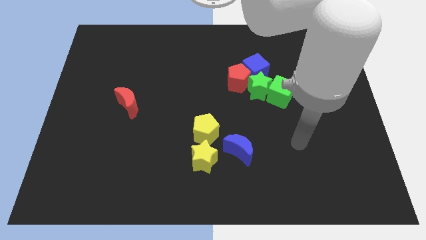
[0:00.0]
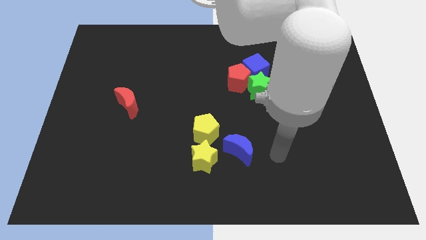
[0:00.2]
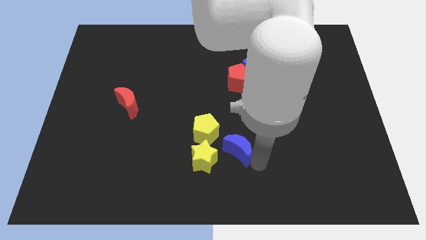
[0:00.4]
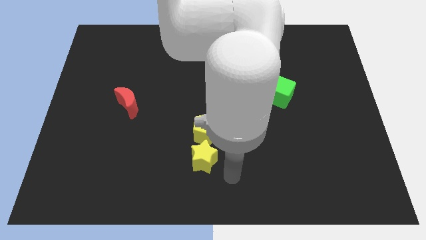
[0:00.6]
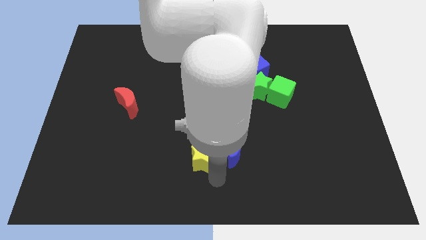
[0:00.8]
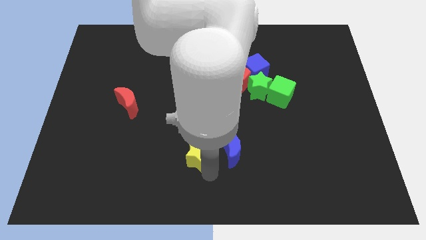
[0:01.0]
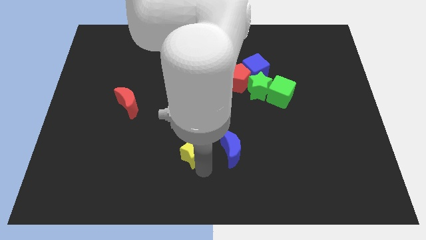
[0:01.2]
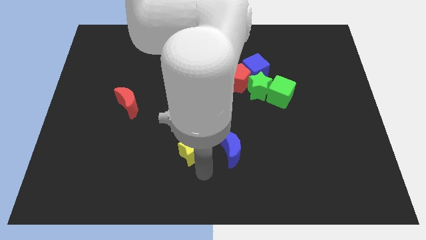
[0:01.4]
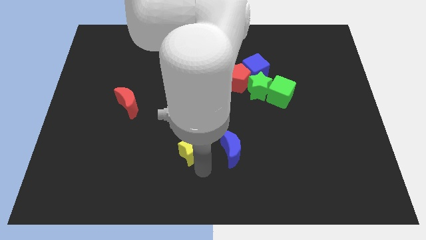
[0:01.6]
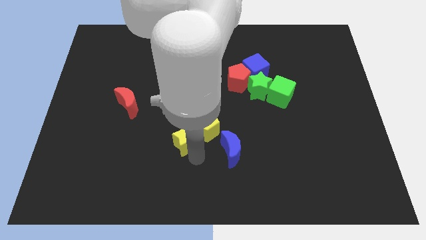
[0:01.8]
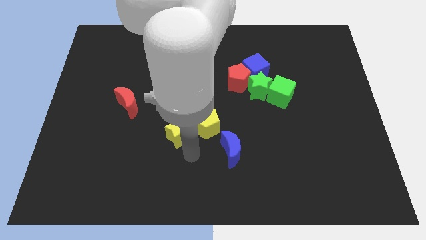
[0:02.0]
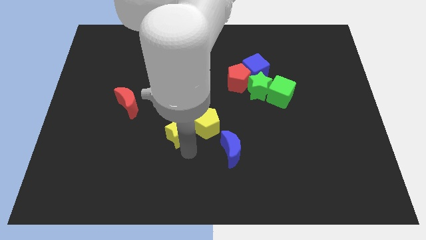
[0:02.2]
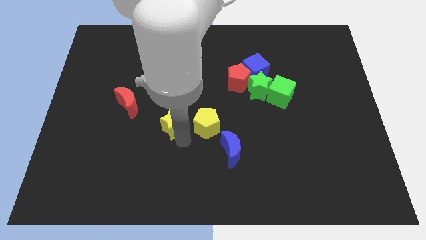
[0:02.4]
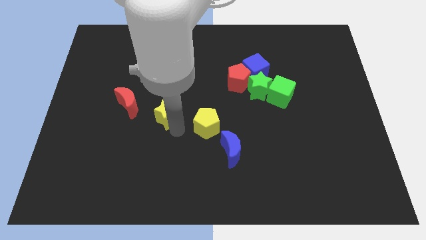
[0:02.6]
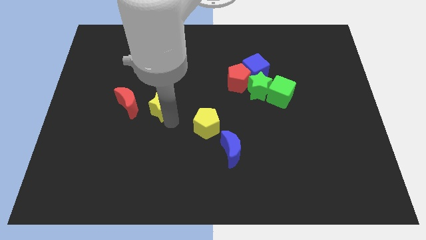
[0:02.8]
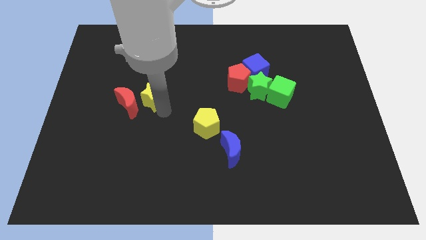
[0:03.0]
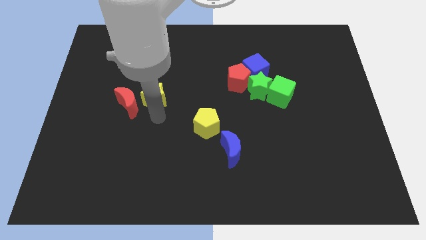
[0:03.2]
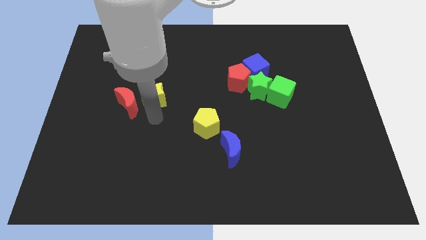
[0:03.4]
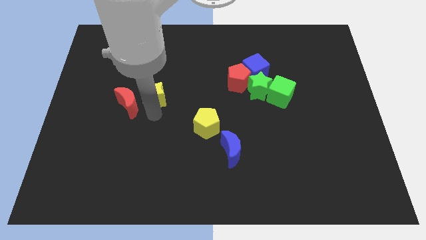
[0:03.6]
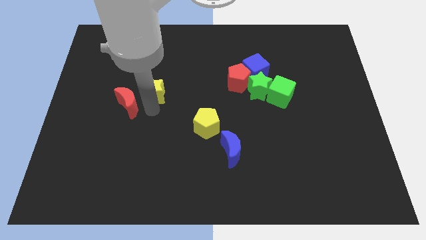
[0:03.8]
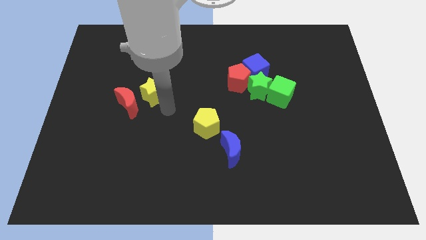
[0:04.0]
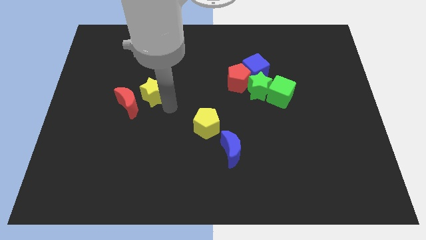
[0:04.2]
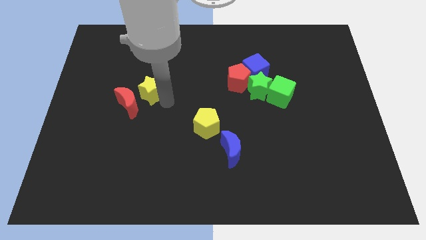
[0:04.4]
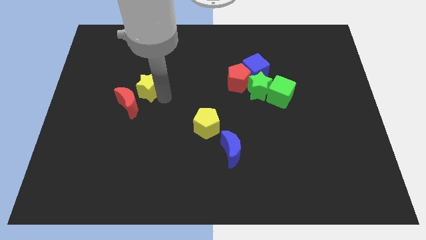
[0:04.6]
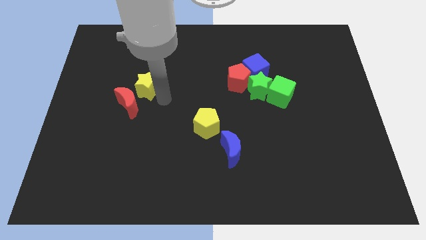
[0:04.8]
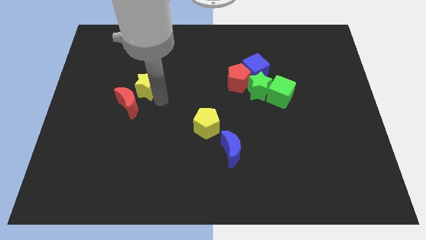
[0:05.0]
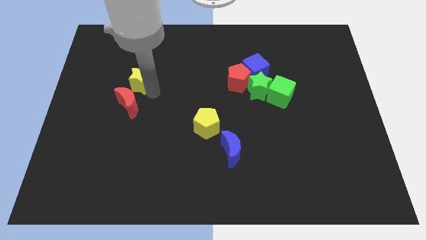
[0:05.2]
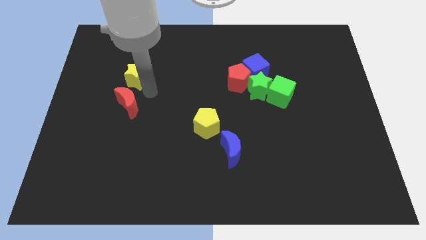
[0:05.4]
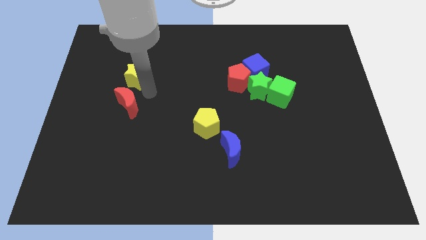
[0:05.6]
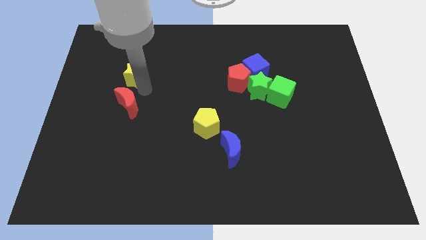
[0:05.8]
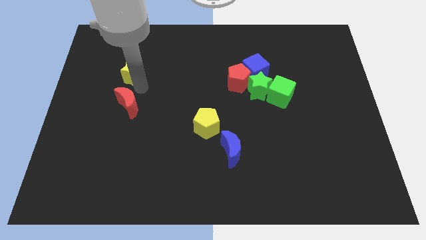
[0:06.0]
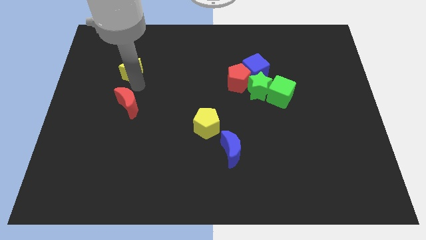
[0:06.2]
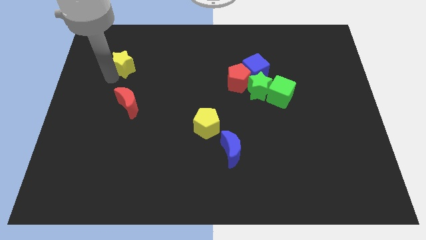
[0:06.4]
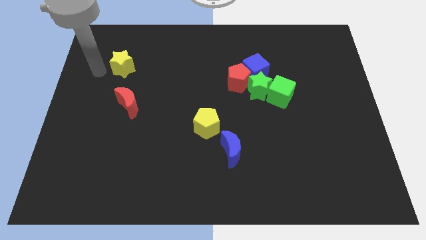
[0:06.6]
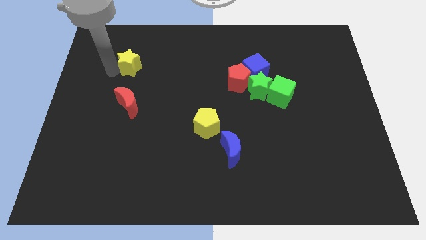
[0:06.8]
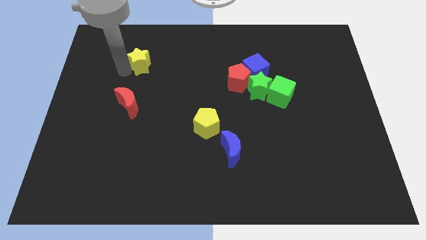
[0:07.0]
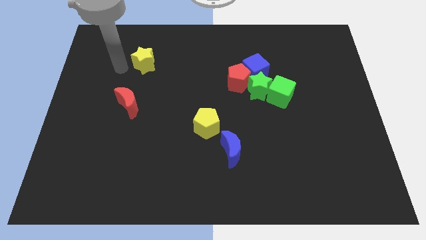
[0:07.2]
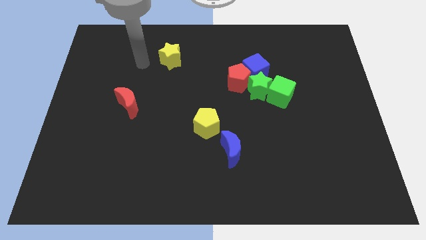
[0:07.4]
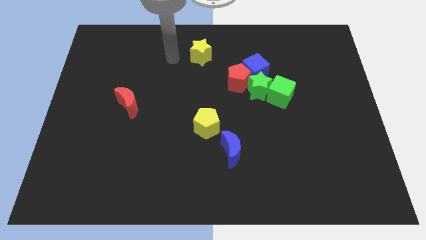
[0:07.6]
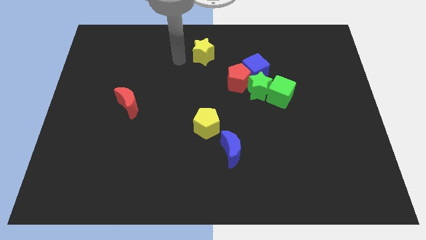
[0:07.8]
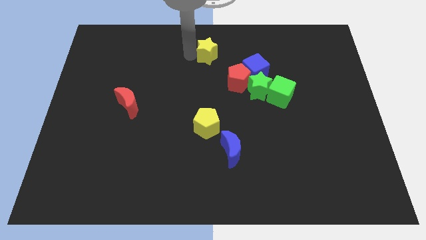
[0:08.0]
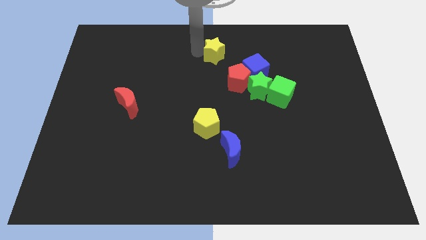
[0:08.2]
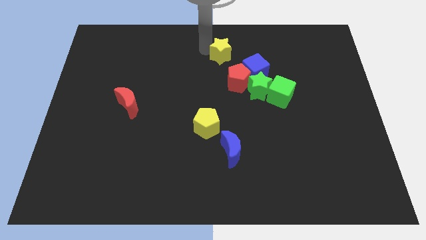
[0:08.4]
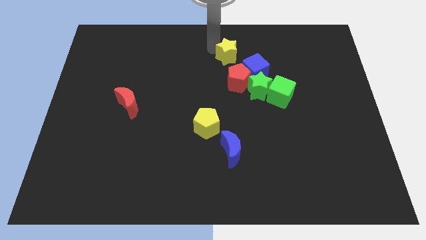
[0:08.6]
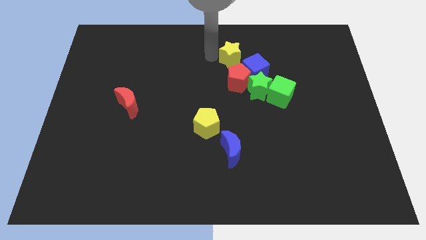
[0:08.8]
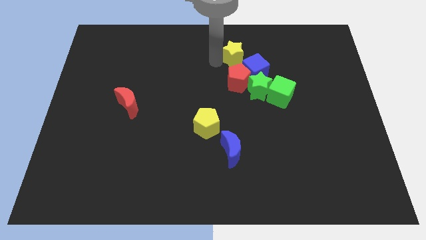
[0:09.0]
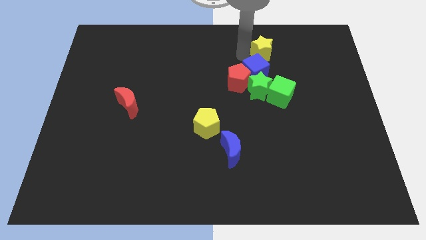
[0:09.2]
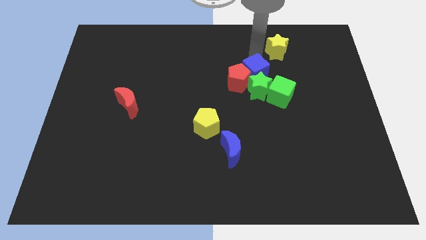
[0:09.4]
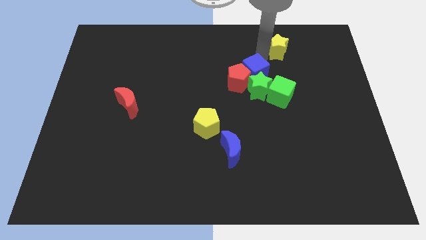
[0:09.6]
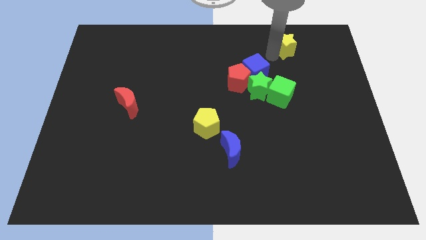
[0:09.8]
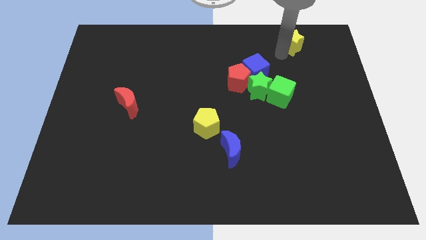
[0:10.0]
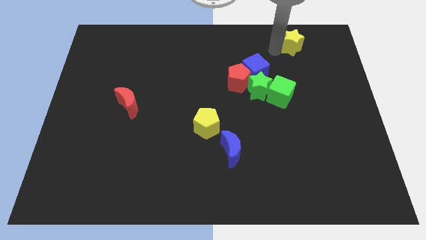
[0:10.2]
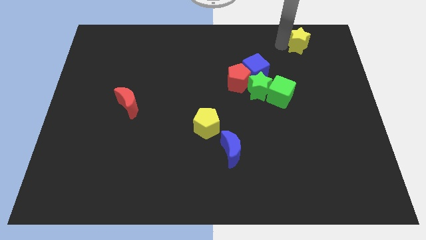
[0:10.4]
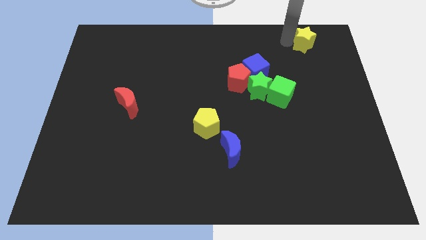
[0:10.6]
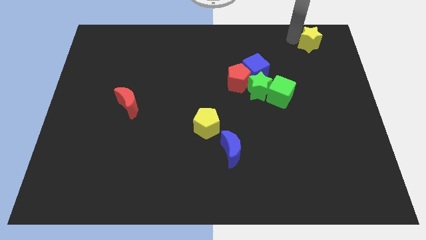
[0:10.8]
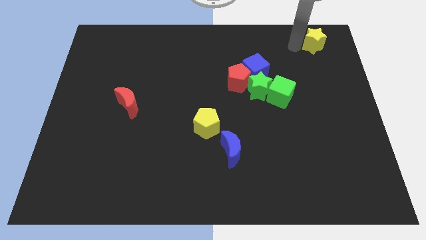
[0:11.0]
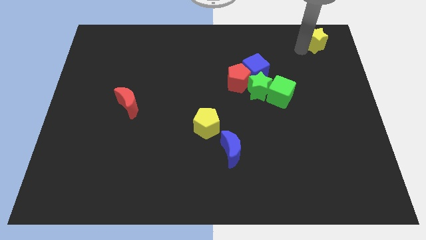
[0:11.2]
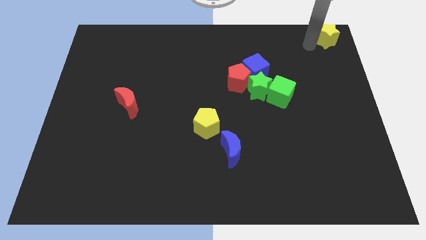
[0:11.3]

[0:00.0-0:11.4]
slide the yellow star to the top right

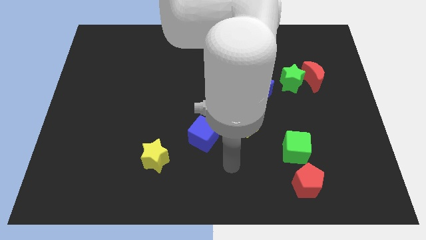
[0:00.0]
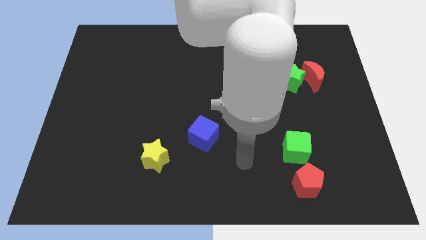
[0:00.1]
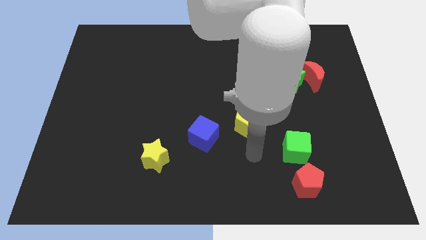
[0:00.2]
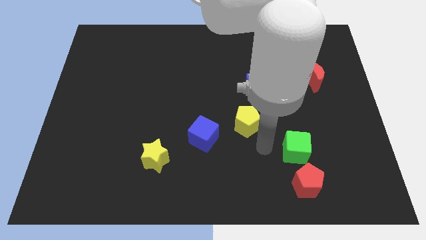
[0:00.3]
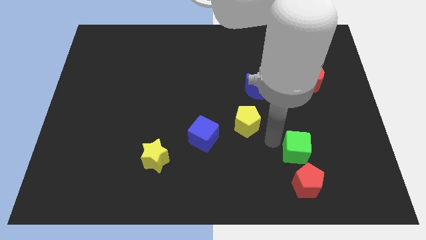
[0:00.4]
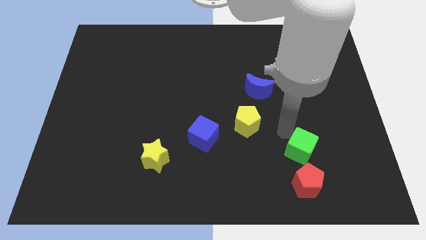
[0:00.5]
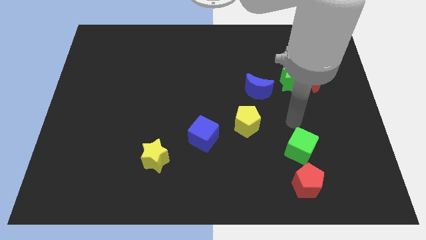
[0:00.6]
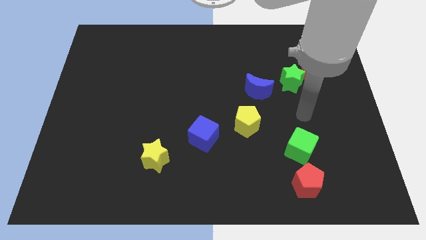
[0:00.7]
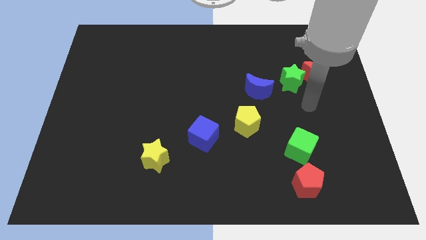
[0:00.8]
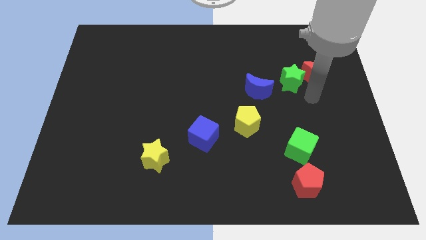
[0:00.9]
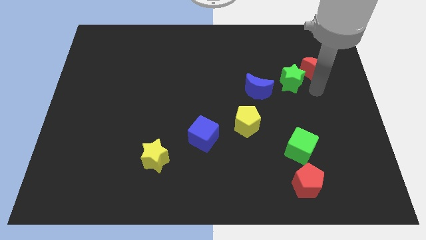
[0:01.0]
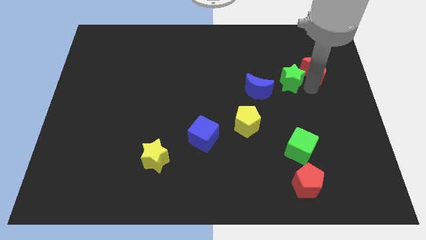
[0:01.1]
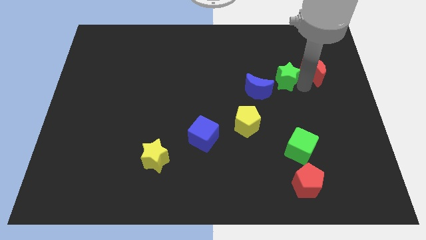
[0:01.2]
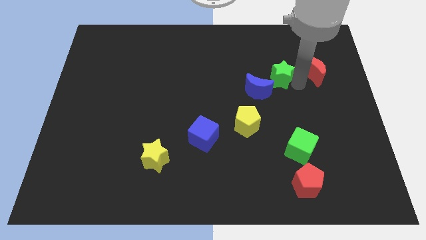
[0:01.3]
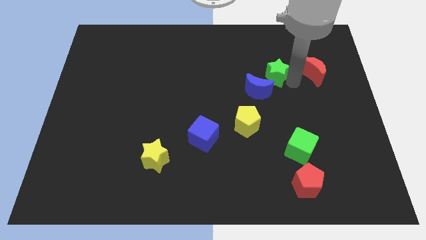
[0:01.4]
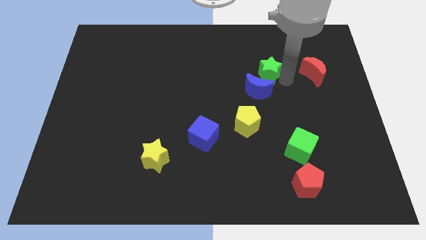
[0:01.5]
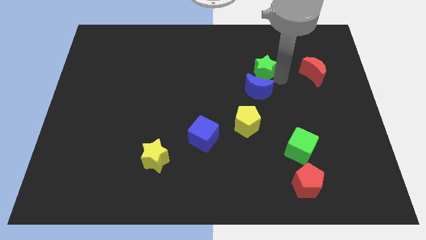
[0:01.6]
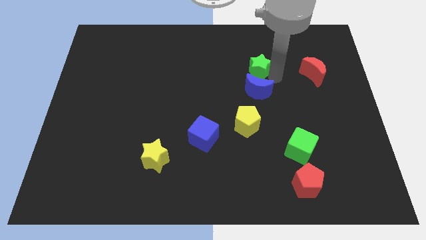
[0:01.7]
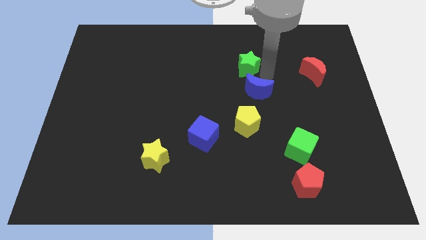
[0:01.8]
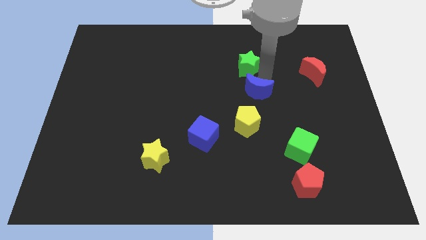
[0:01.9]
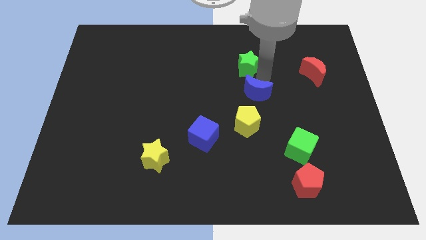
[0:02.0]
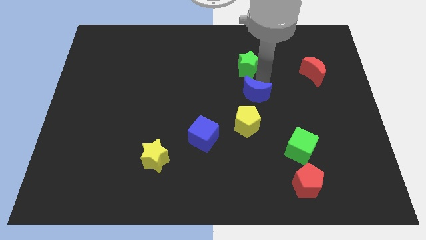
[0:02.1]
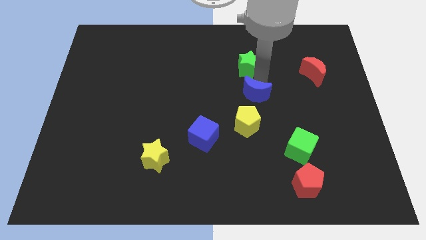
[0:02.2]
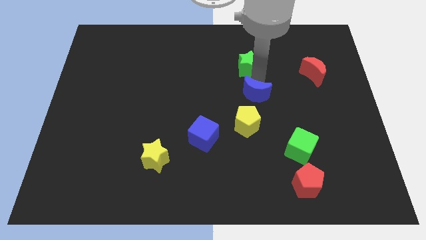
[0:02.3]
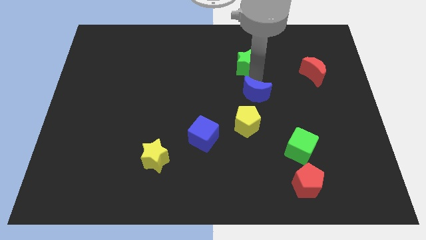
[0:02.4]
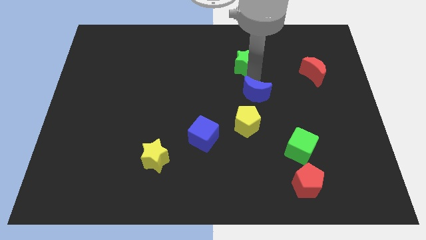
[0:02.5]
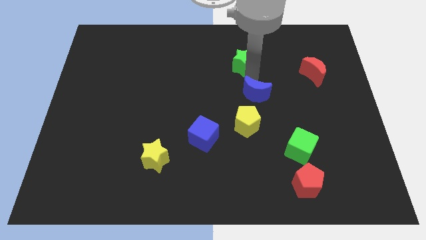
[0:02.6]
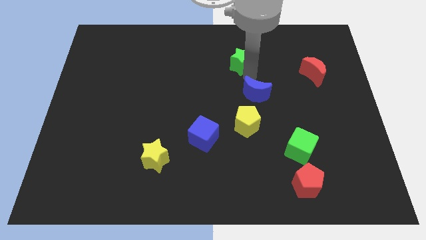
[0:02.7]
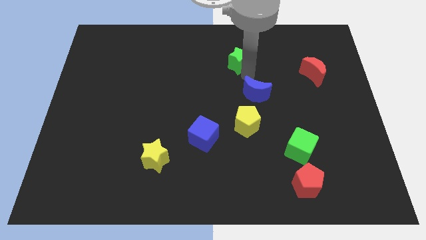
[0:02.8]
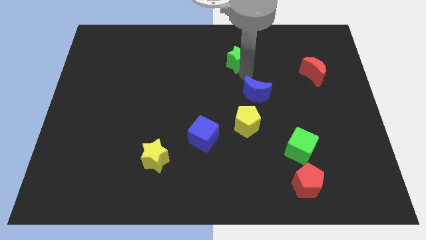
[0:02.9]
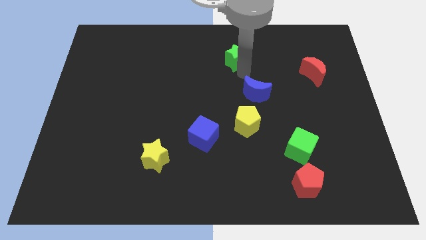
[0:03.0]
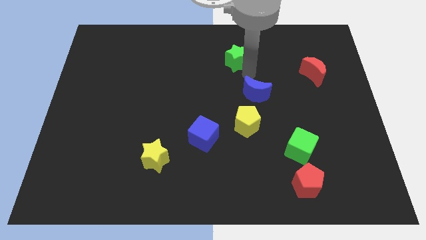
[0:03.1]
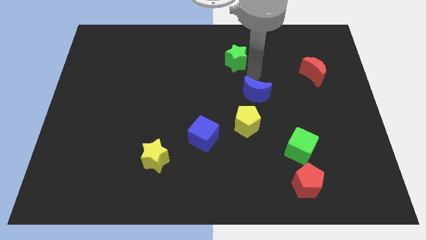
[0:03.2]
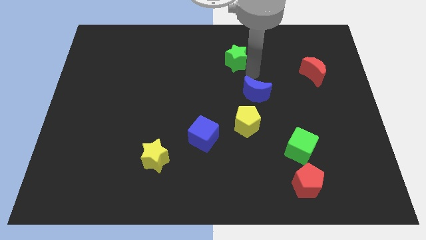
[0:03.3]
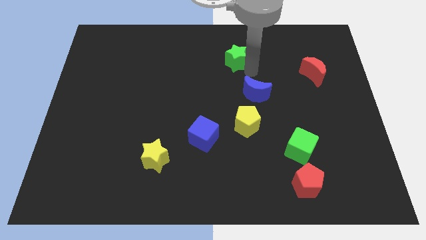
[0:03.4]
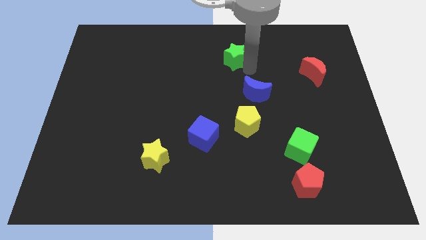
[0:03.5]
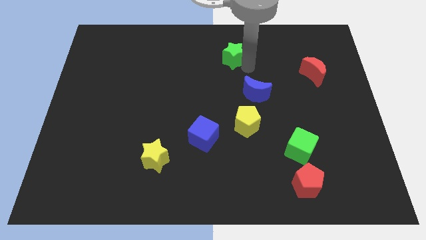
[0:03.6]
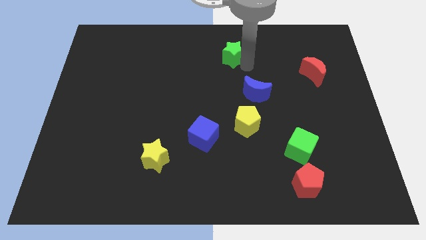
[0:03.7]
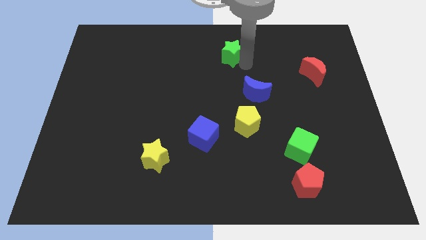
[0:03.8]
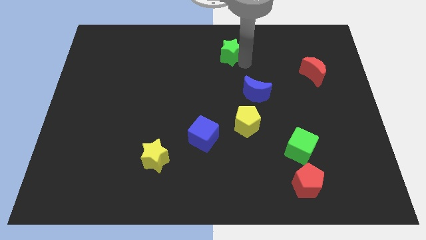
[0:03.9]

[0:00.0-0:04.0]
put the green star to the top side
